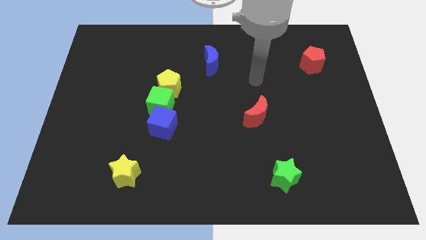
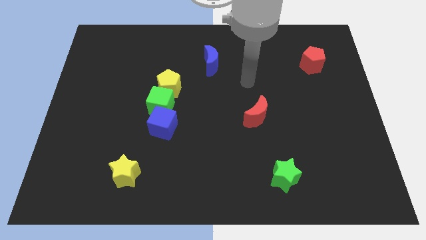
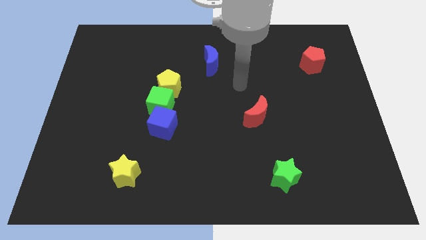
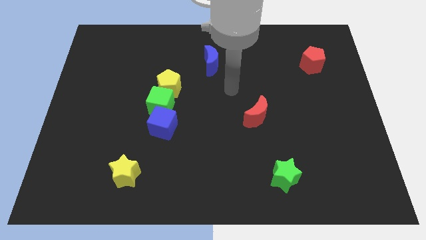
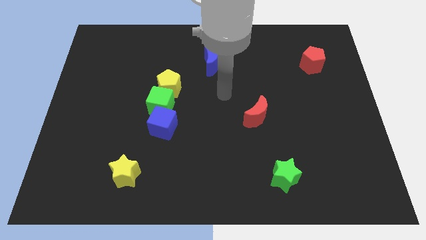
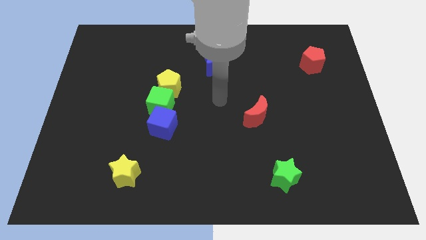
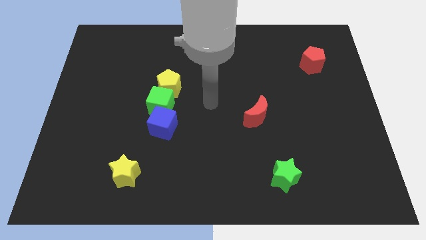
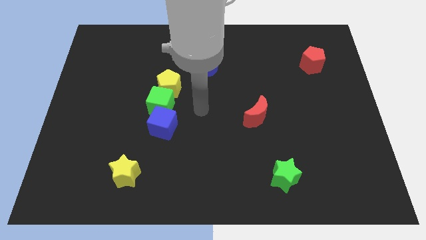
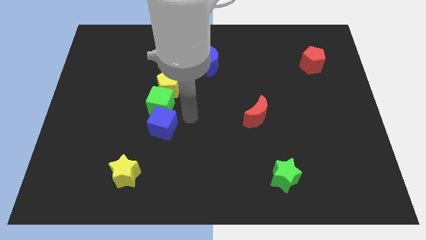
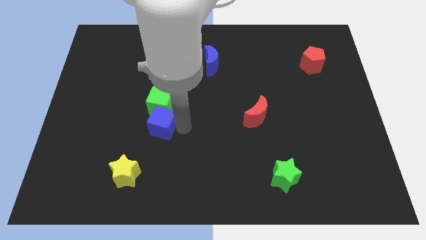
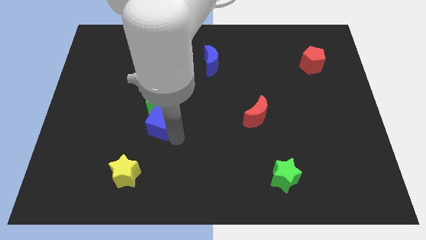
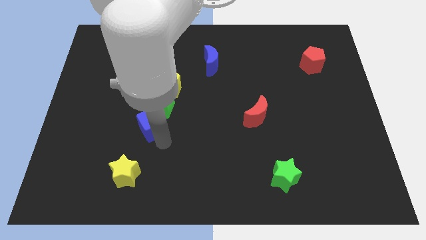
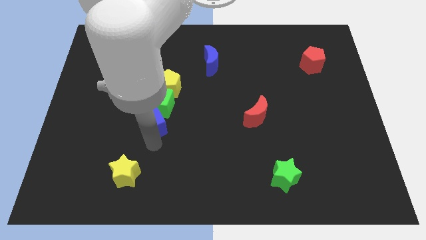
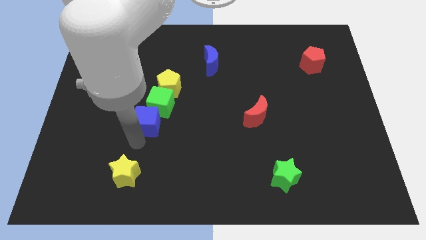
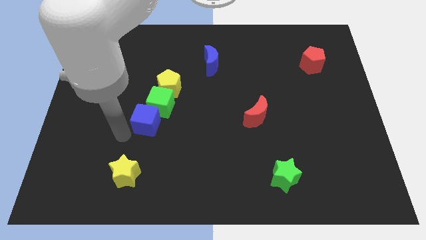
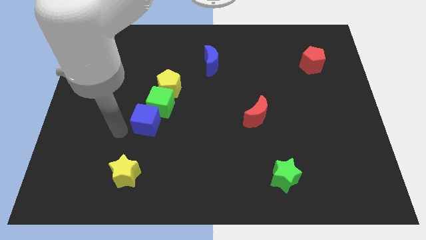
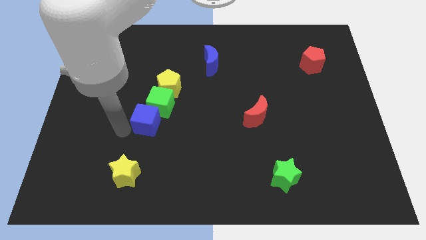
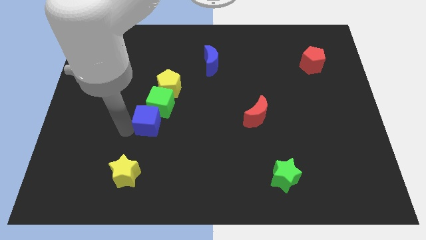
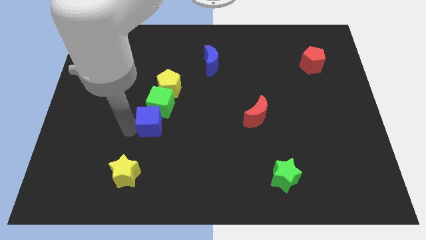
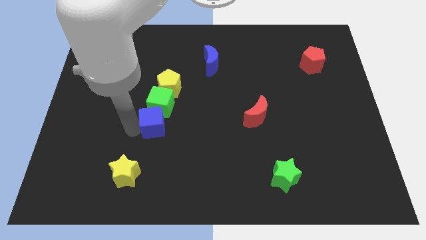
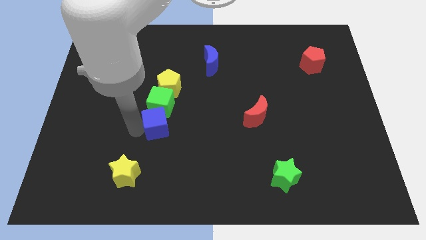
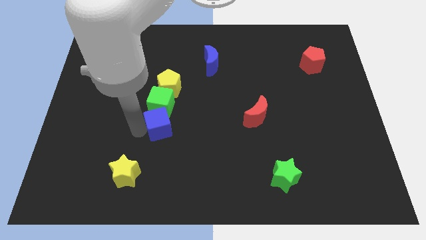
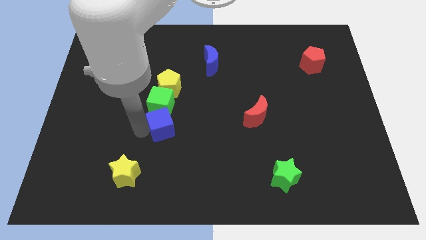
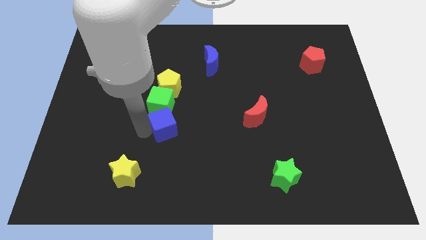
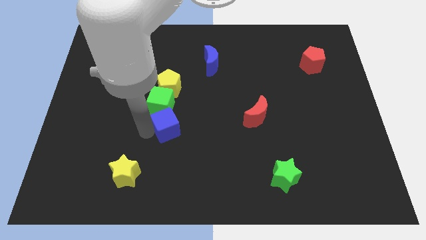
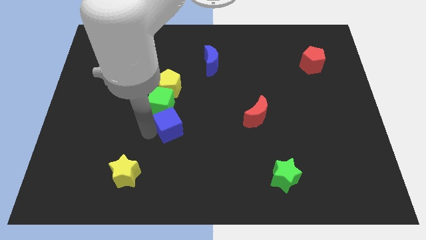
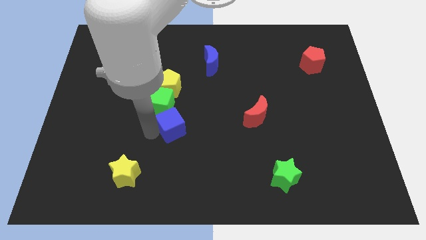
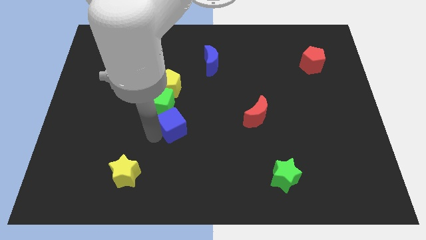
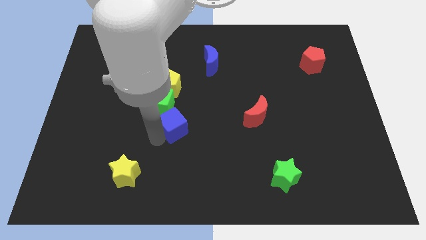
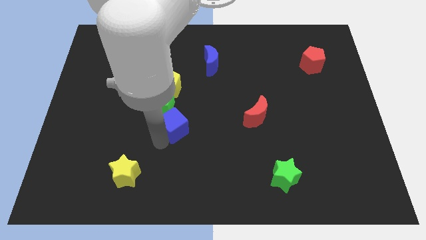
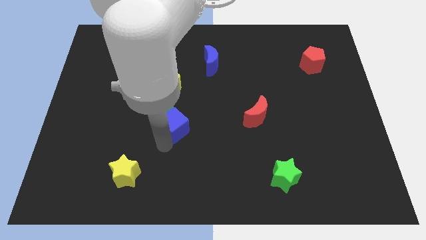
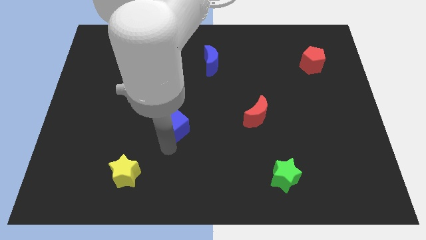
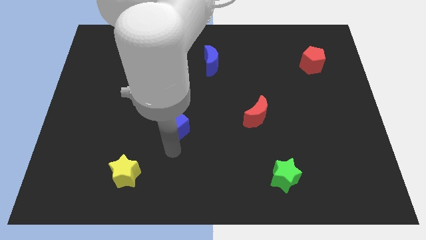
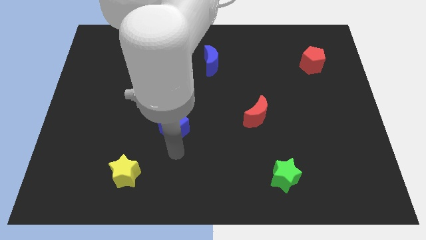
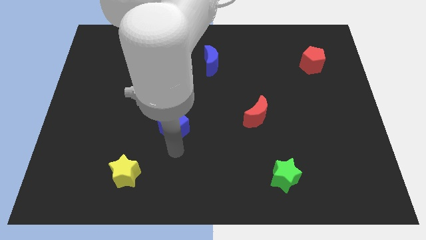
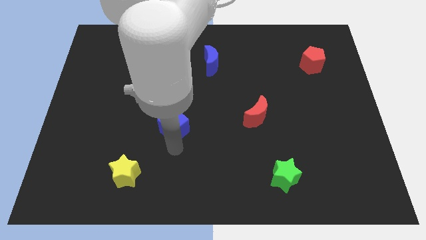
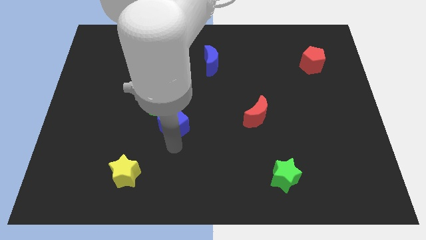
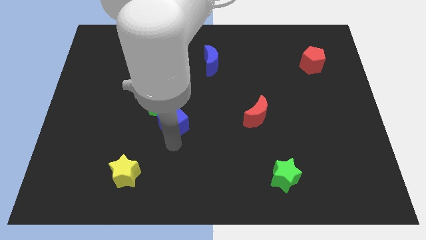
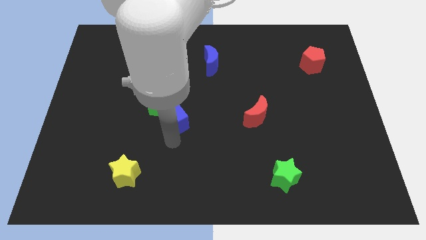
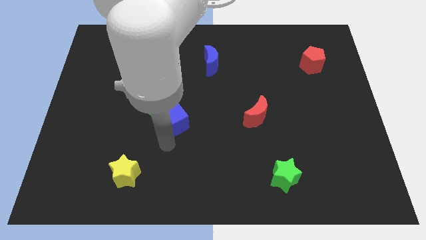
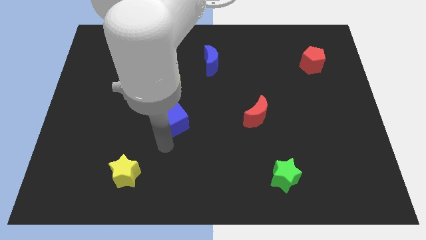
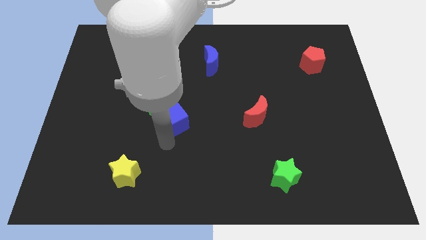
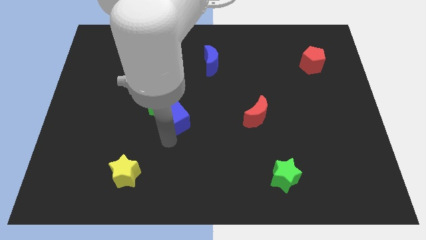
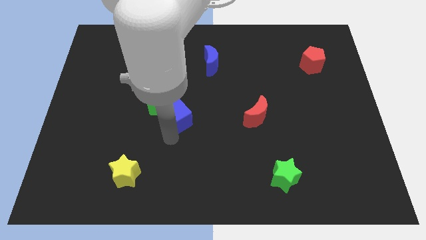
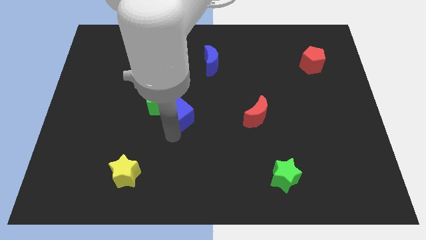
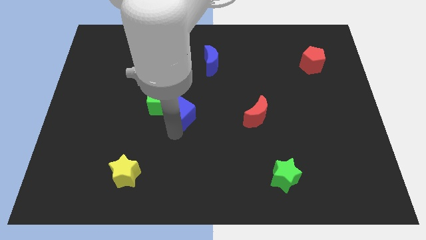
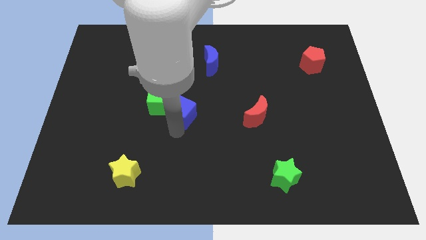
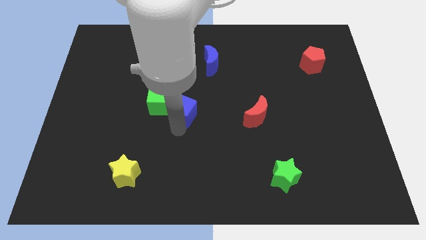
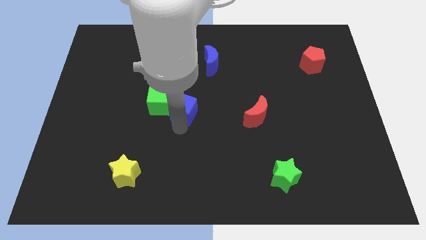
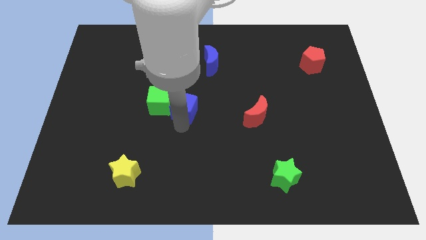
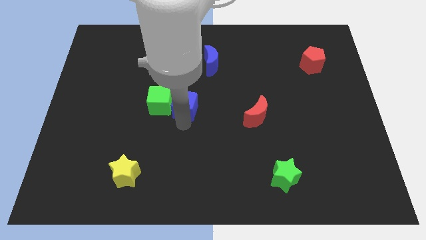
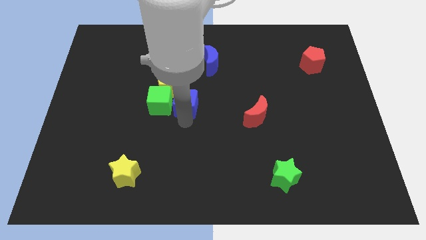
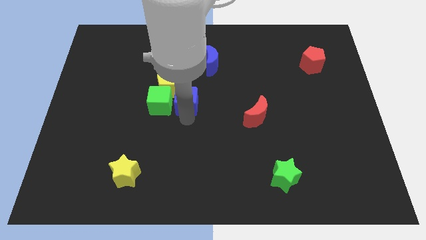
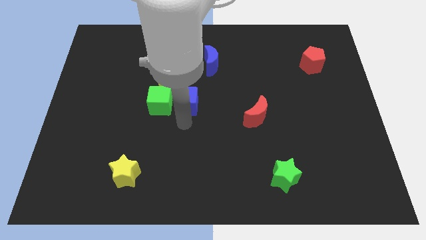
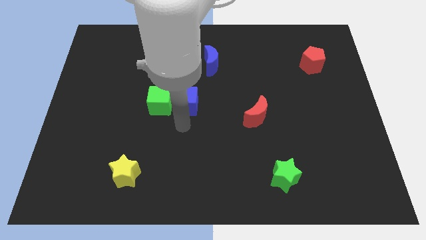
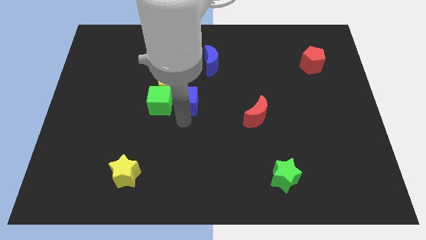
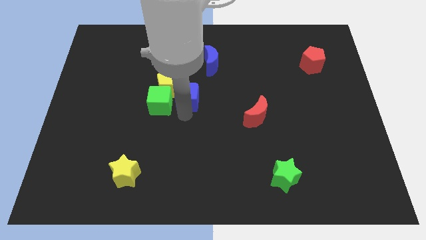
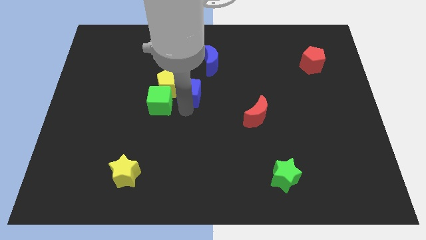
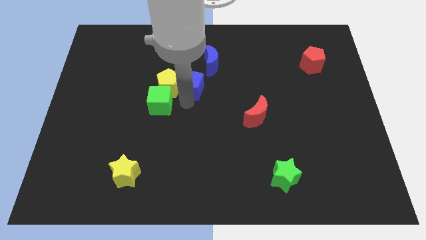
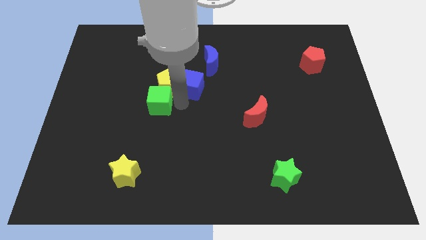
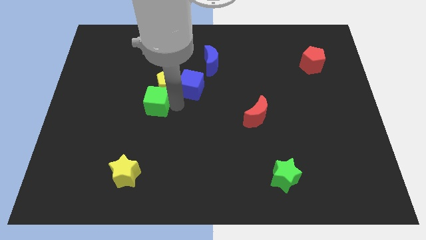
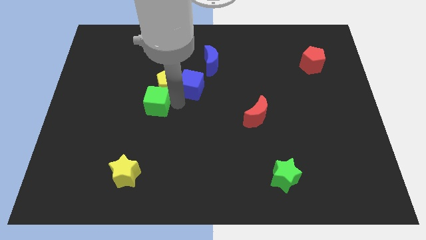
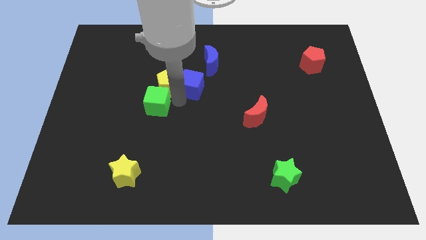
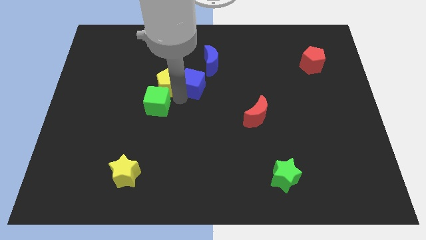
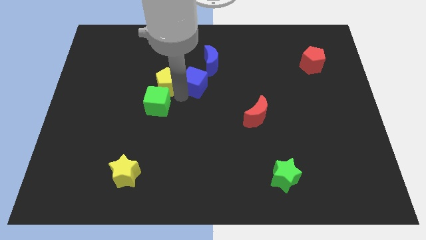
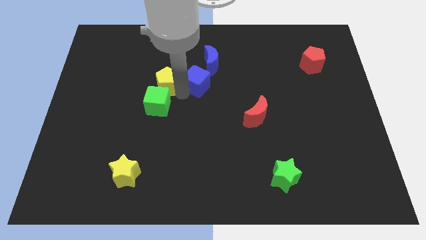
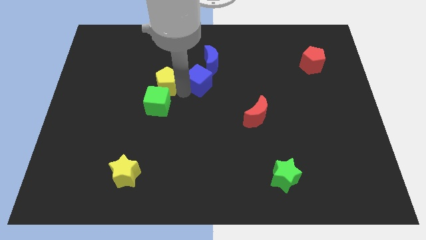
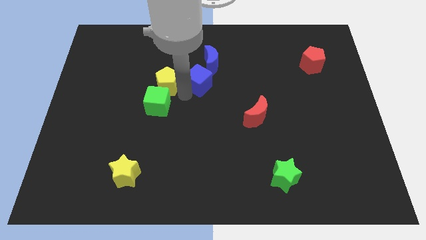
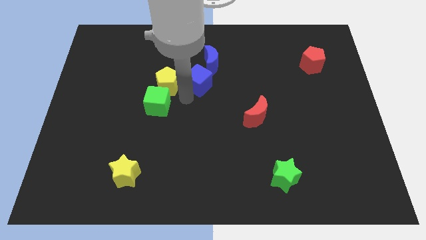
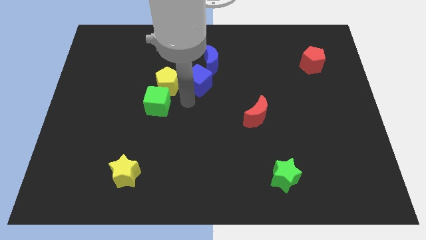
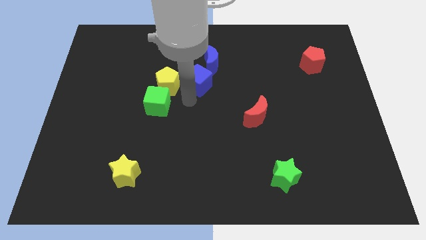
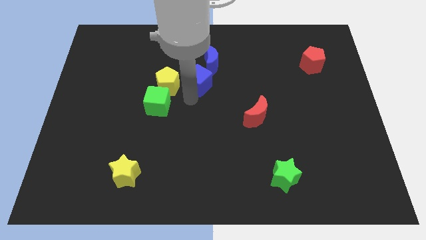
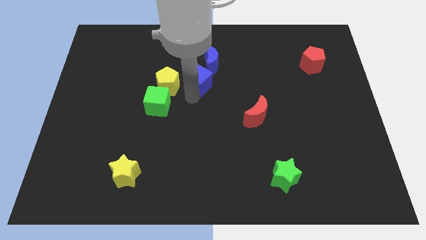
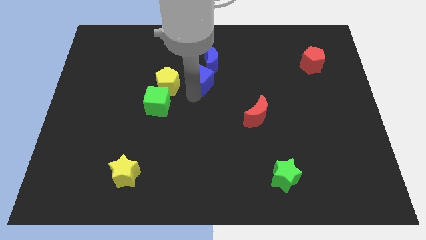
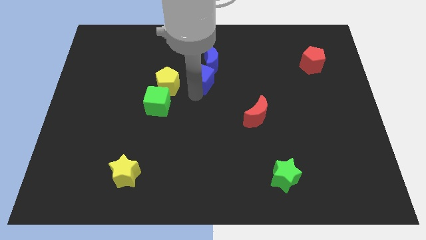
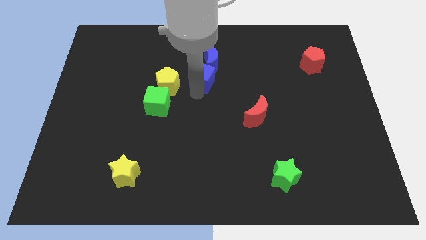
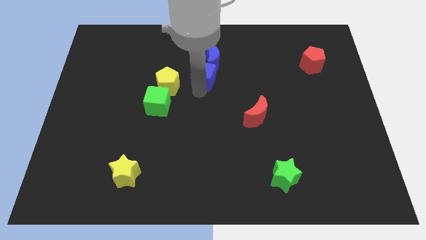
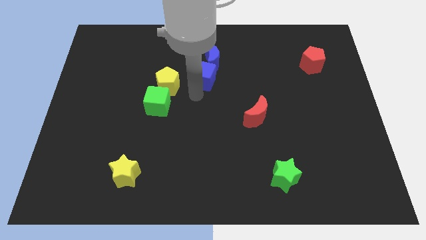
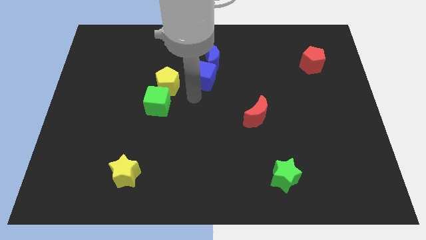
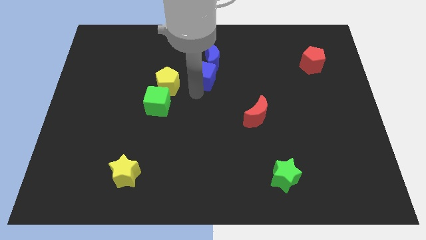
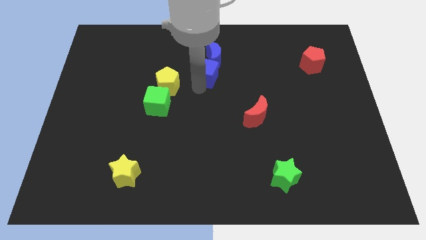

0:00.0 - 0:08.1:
slide the blue cube towards the blue moon

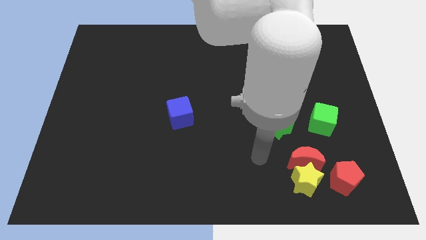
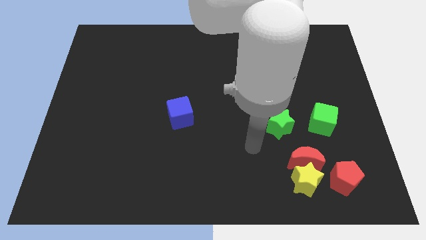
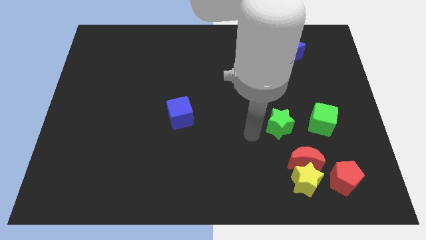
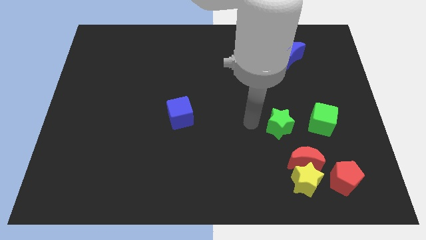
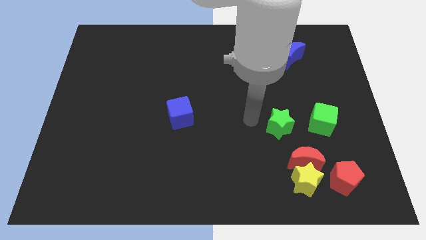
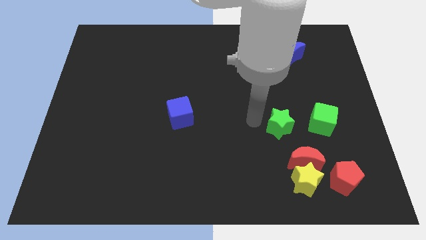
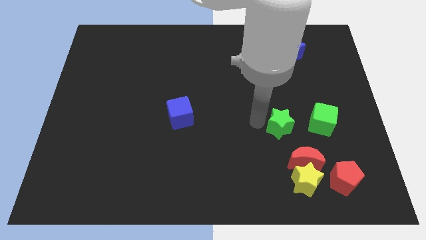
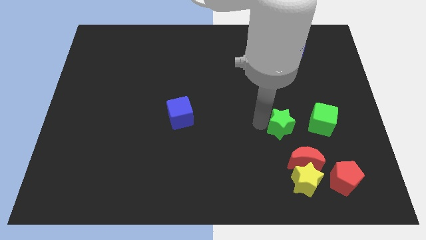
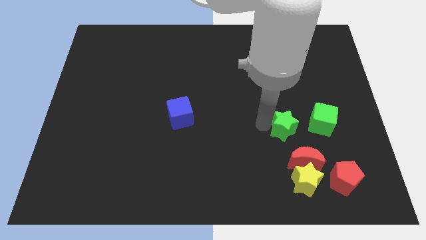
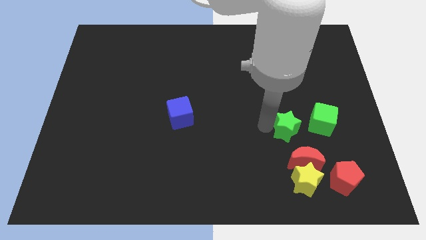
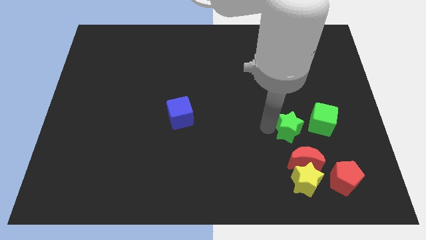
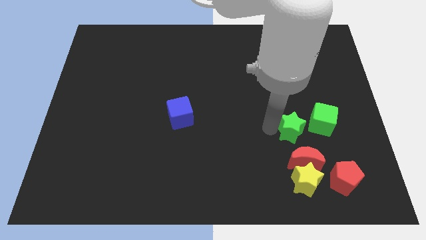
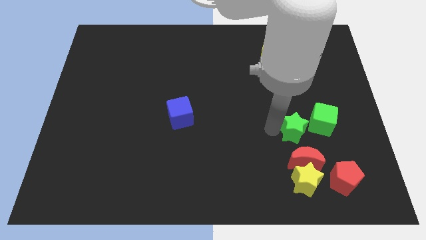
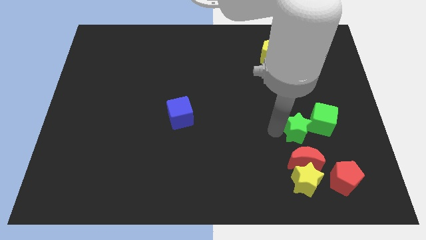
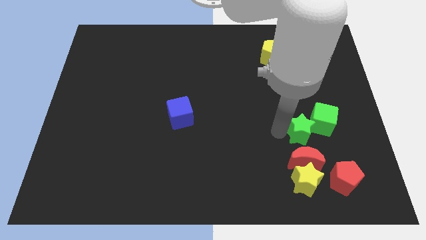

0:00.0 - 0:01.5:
move the green star next to the green cube
